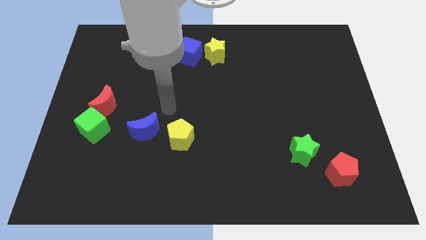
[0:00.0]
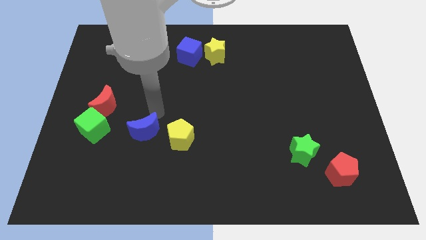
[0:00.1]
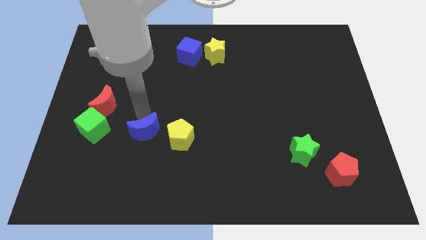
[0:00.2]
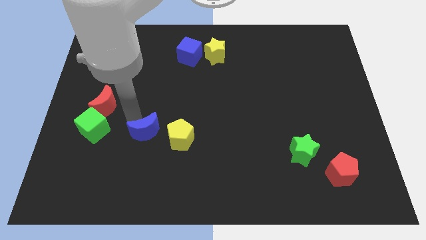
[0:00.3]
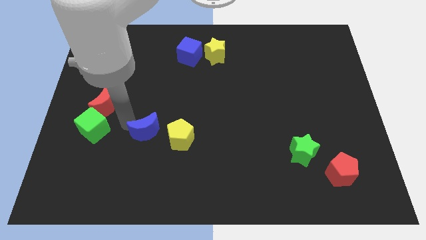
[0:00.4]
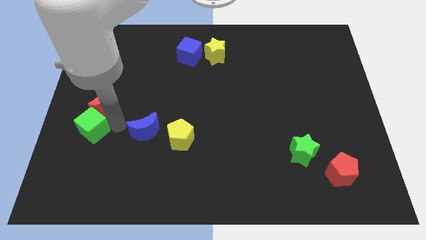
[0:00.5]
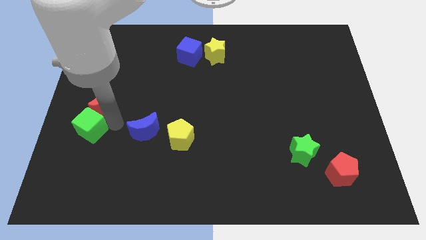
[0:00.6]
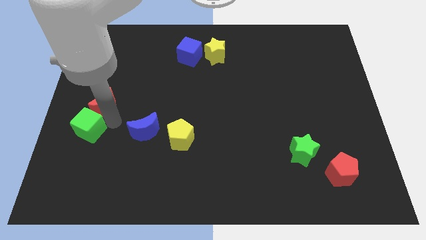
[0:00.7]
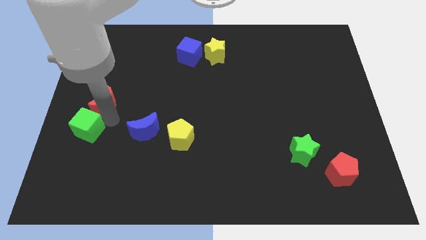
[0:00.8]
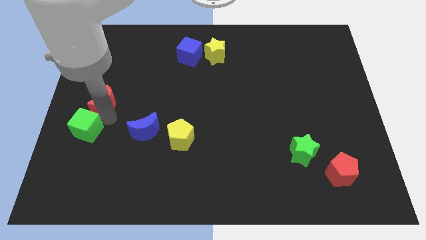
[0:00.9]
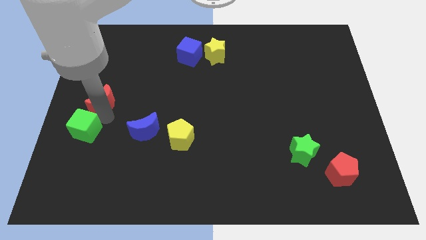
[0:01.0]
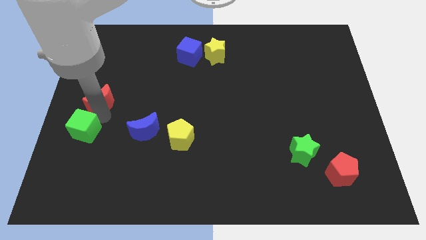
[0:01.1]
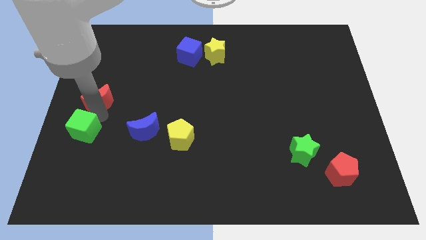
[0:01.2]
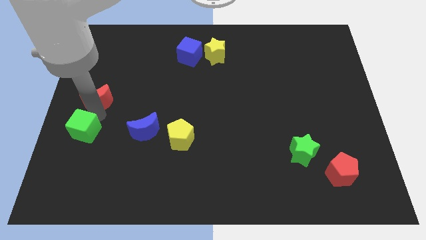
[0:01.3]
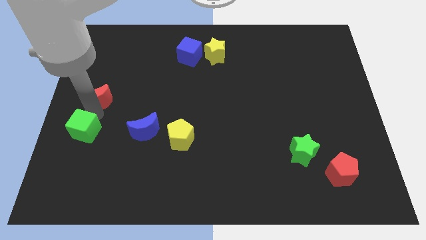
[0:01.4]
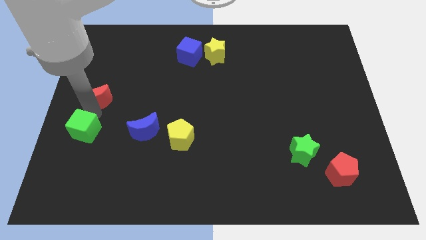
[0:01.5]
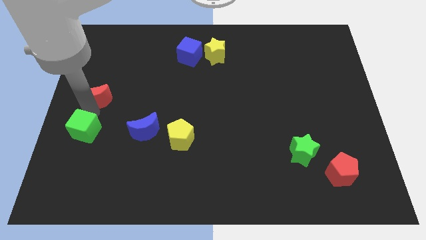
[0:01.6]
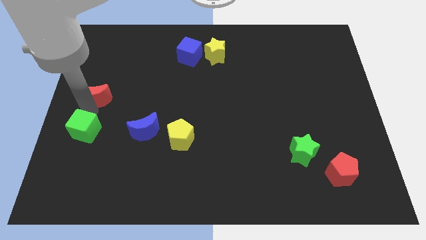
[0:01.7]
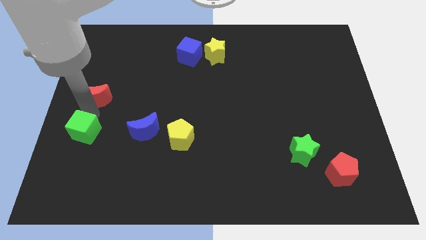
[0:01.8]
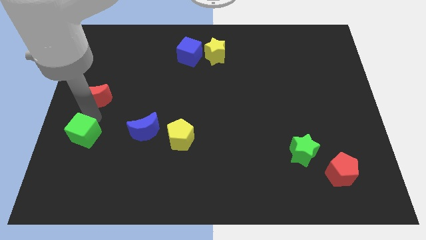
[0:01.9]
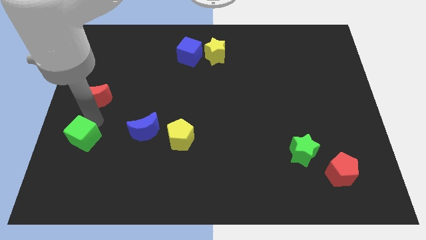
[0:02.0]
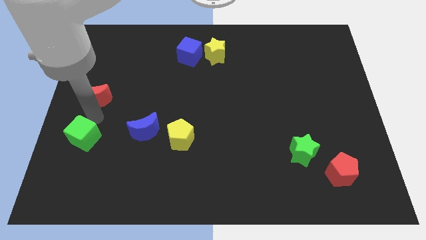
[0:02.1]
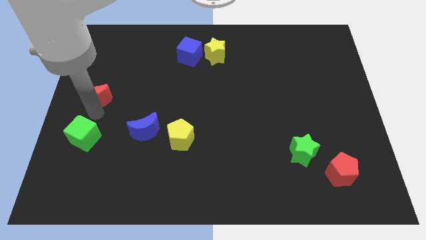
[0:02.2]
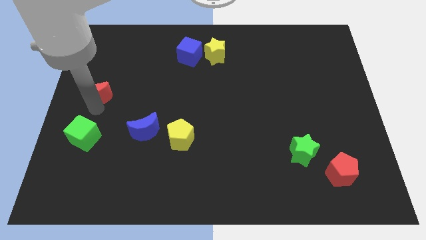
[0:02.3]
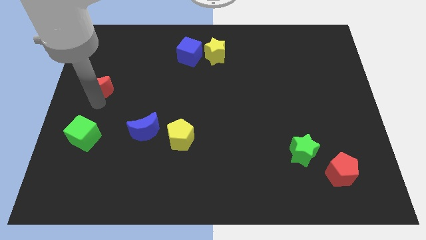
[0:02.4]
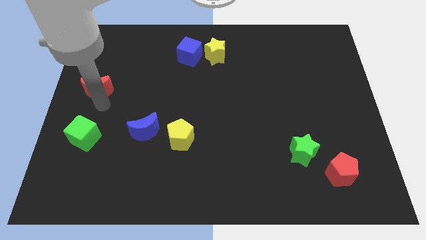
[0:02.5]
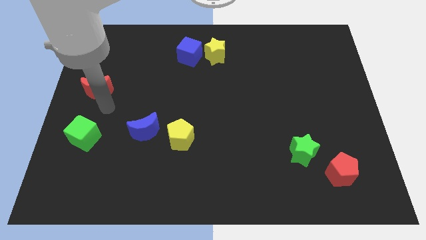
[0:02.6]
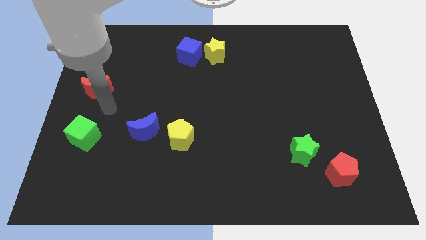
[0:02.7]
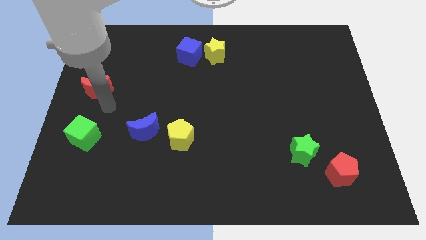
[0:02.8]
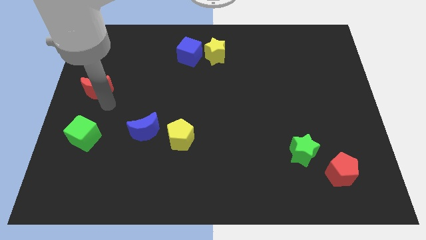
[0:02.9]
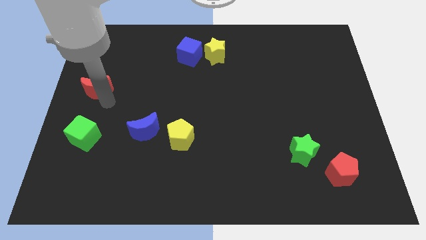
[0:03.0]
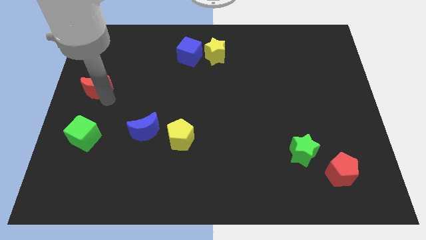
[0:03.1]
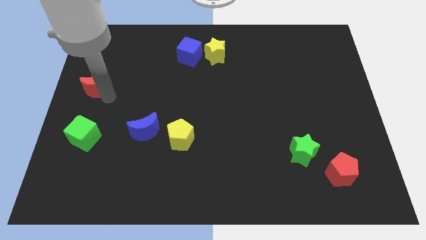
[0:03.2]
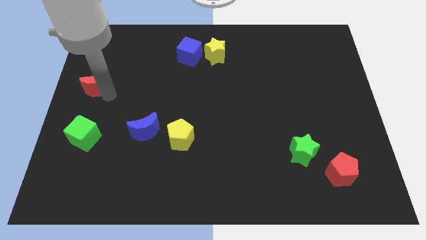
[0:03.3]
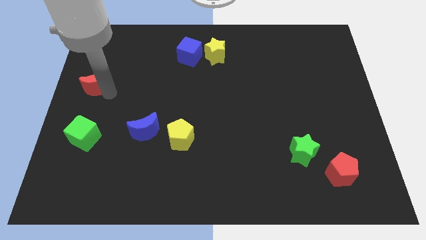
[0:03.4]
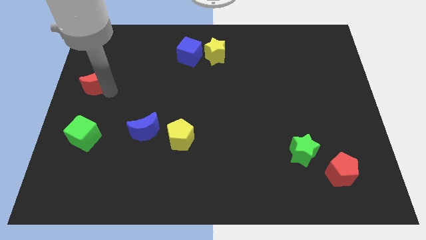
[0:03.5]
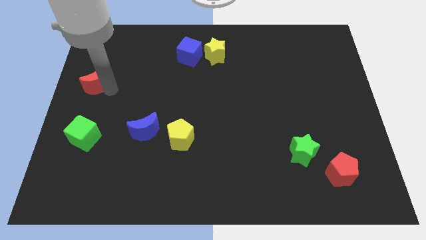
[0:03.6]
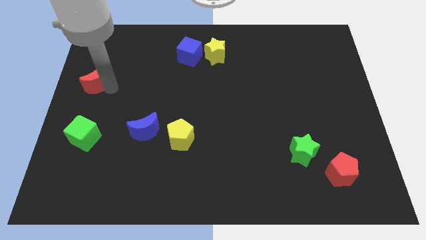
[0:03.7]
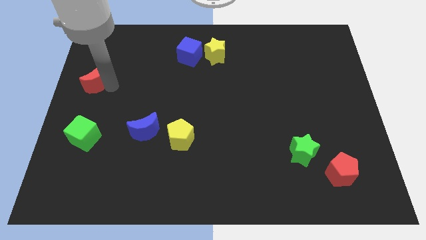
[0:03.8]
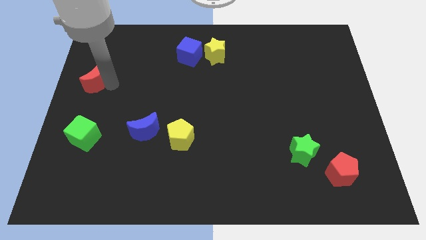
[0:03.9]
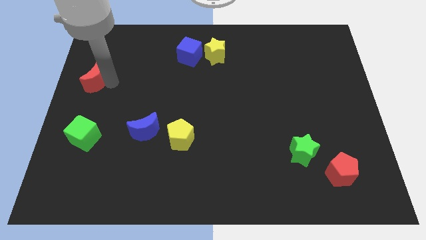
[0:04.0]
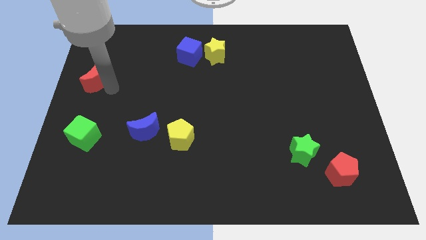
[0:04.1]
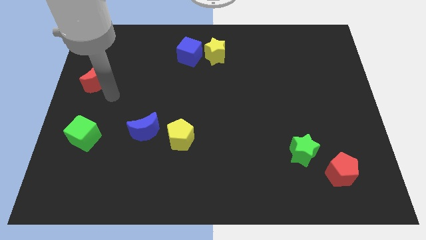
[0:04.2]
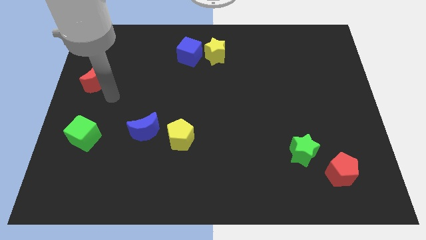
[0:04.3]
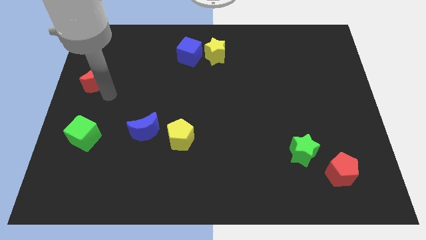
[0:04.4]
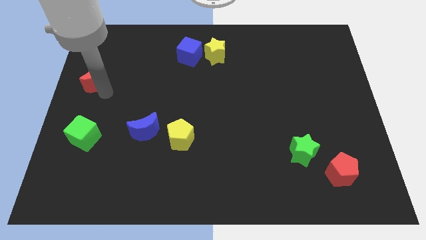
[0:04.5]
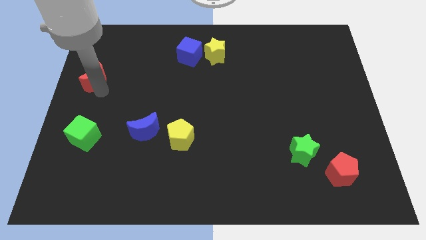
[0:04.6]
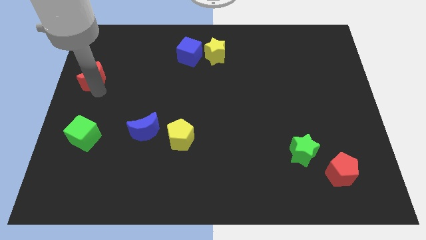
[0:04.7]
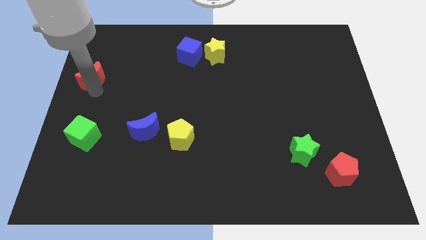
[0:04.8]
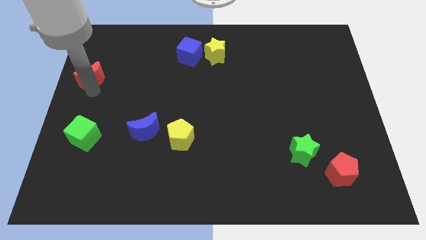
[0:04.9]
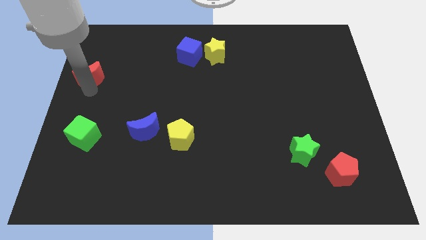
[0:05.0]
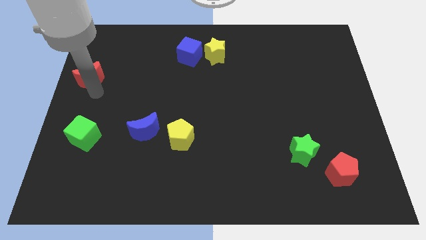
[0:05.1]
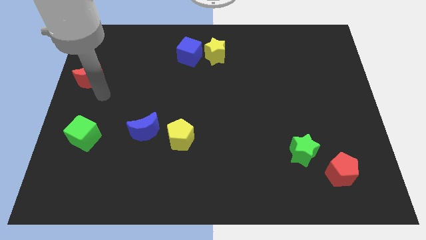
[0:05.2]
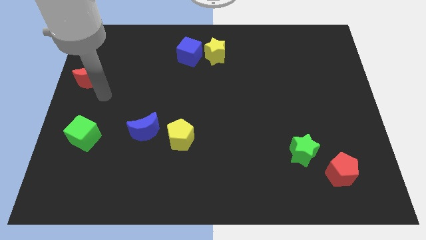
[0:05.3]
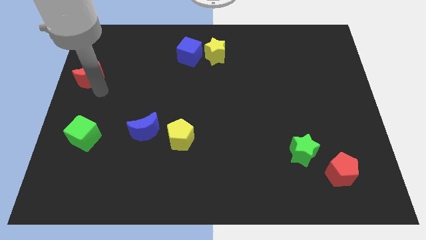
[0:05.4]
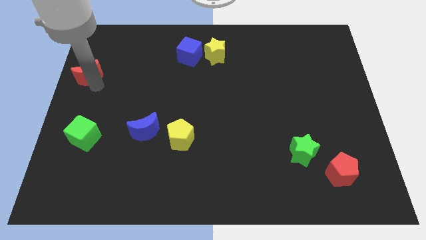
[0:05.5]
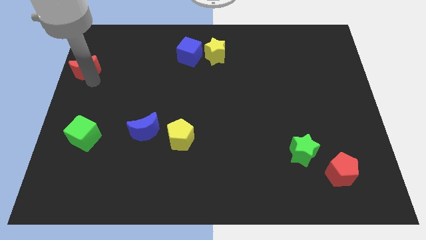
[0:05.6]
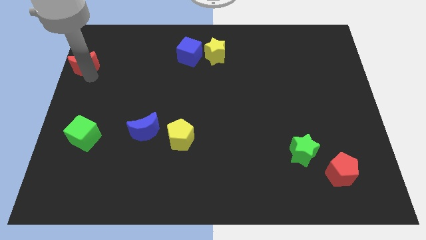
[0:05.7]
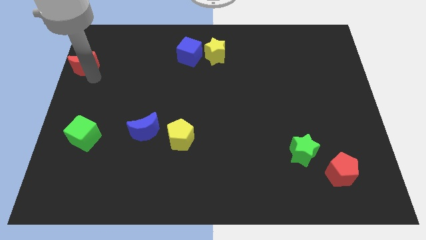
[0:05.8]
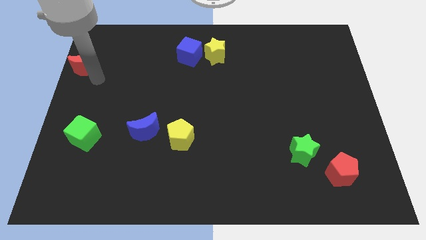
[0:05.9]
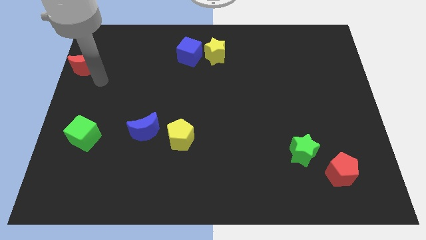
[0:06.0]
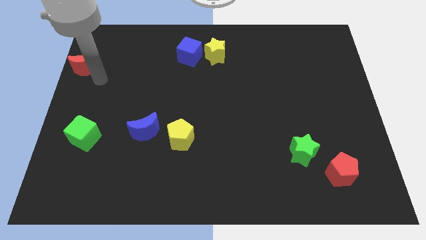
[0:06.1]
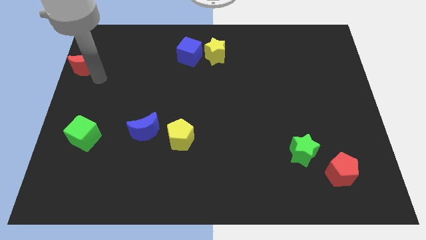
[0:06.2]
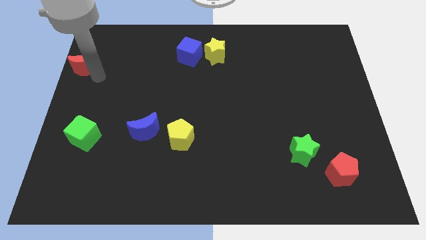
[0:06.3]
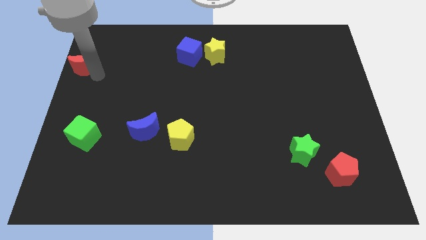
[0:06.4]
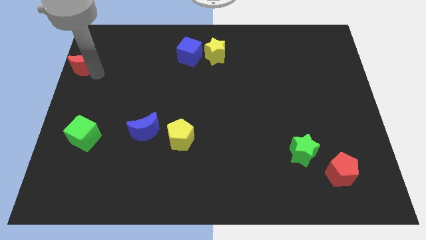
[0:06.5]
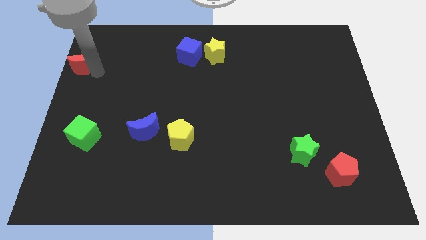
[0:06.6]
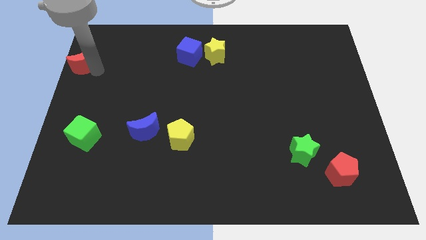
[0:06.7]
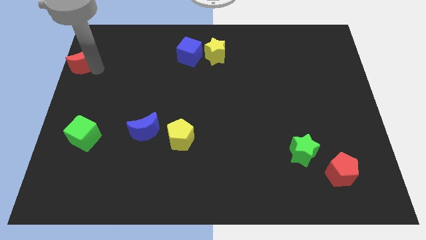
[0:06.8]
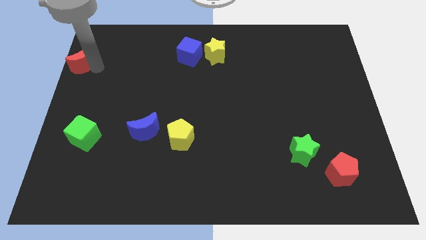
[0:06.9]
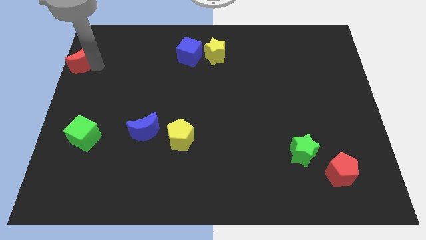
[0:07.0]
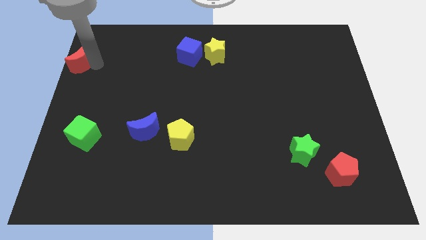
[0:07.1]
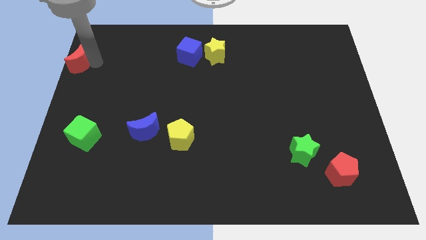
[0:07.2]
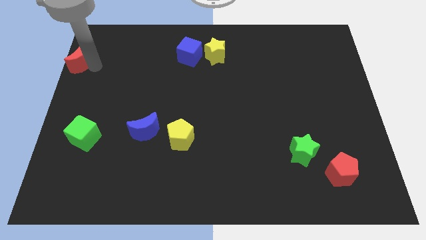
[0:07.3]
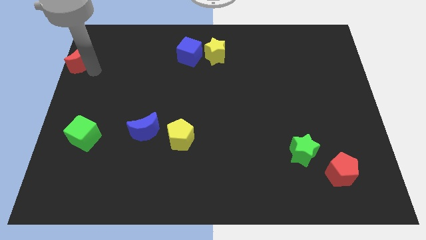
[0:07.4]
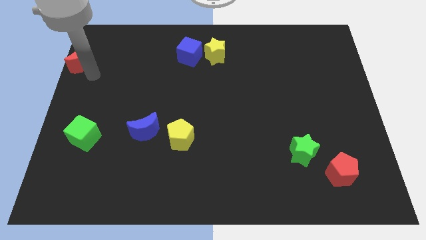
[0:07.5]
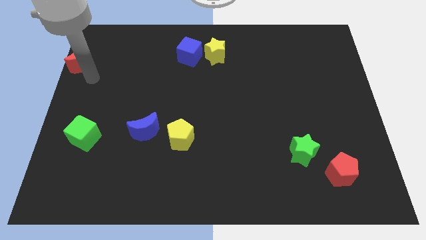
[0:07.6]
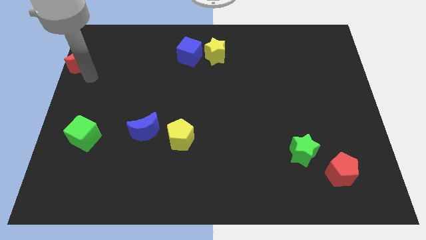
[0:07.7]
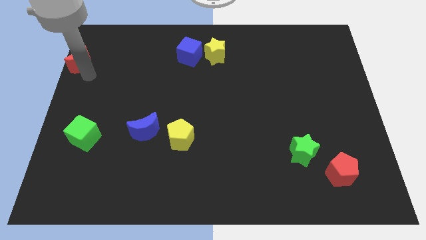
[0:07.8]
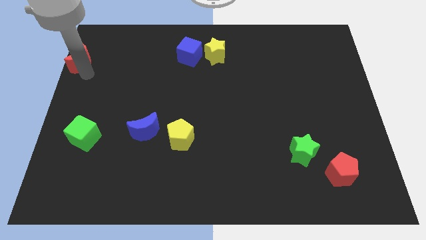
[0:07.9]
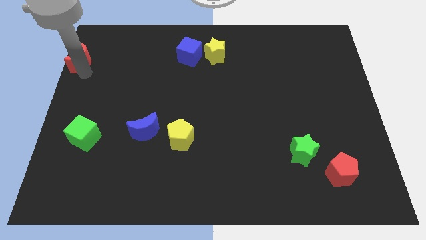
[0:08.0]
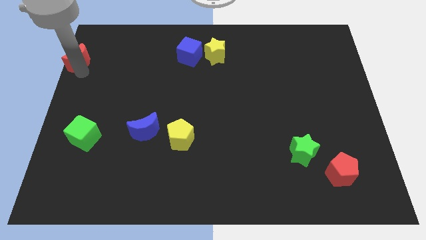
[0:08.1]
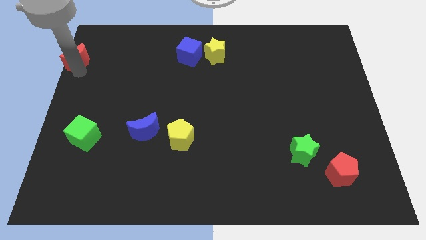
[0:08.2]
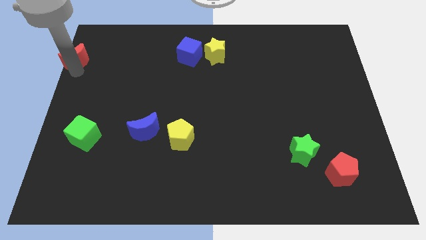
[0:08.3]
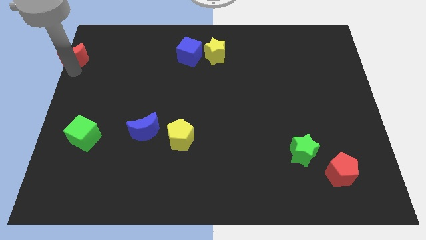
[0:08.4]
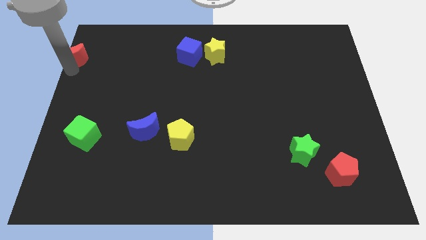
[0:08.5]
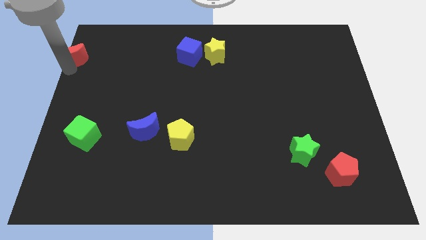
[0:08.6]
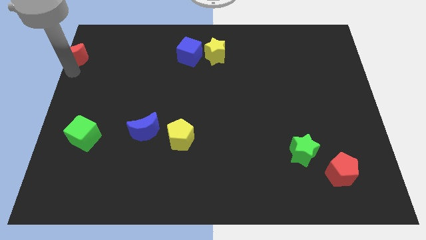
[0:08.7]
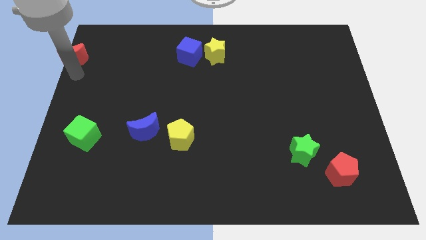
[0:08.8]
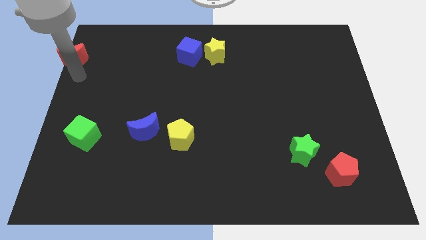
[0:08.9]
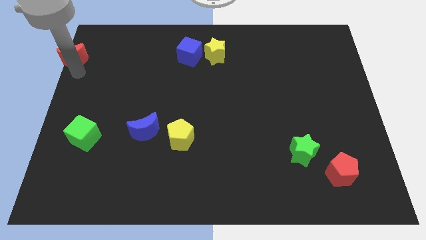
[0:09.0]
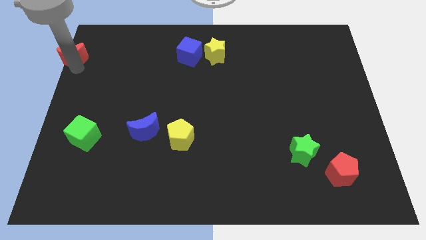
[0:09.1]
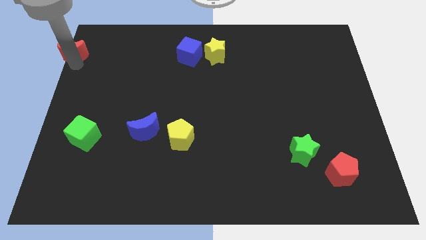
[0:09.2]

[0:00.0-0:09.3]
put the red moon to the top left
